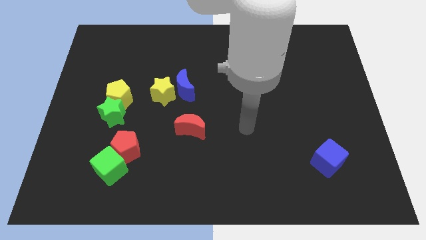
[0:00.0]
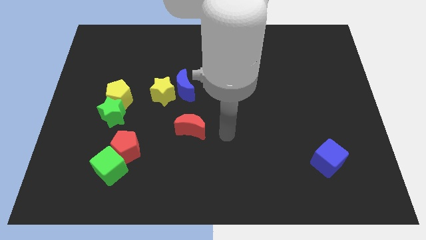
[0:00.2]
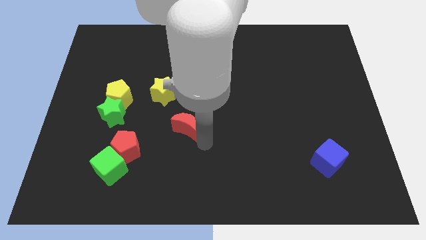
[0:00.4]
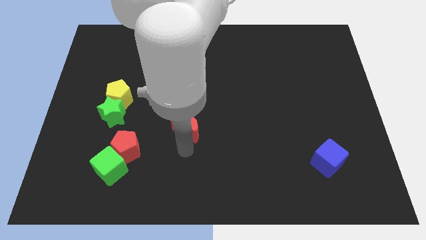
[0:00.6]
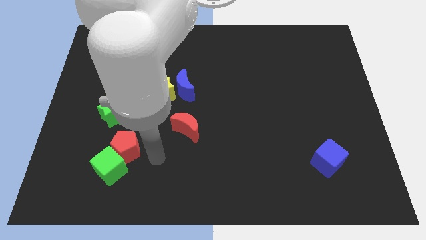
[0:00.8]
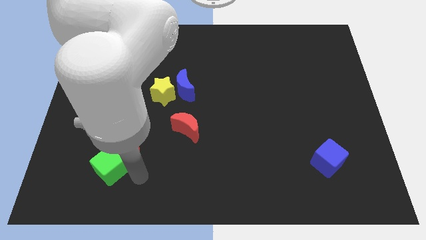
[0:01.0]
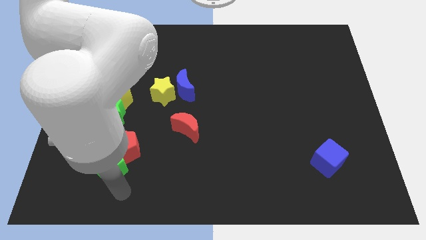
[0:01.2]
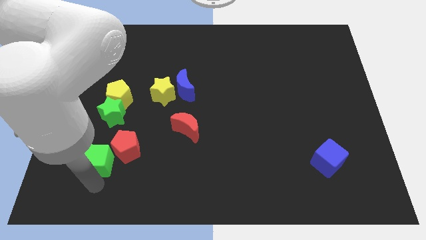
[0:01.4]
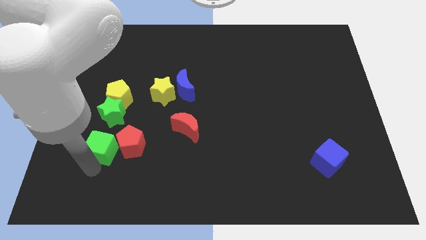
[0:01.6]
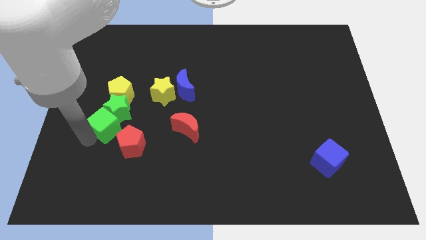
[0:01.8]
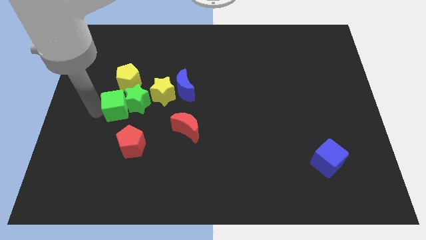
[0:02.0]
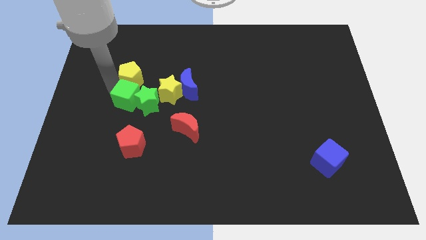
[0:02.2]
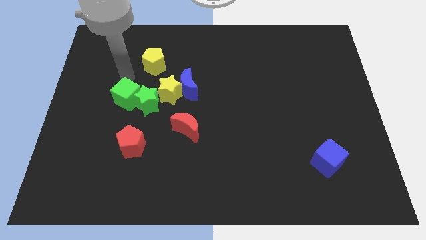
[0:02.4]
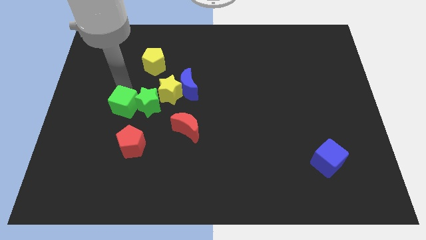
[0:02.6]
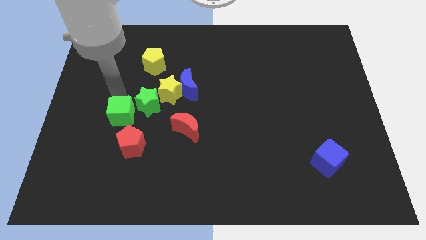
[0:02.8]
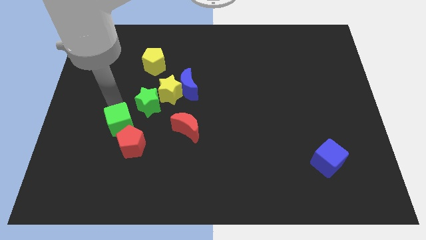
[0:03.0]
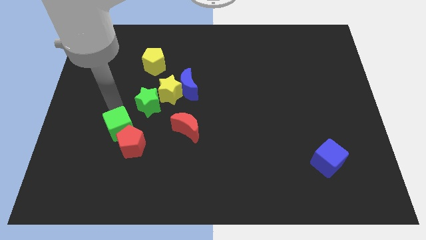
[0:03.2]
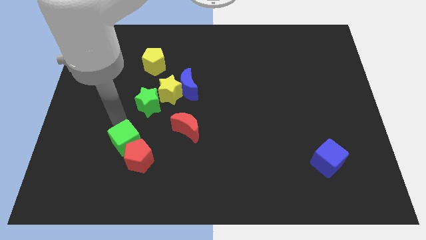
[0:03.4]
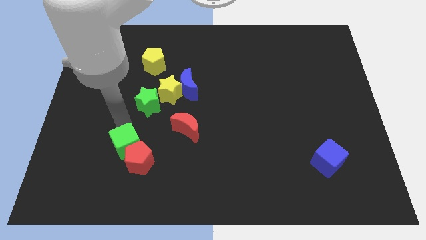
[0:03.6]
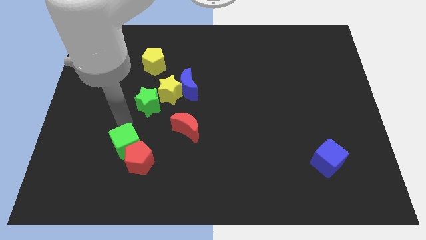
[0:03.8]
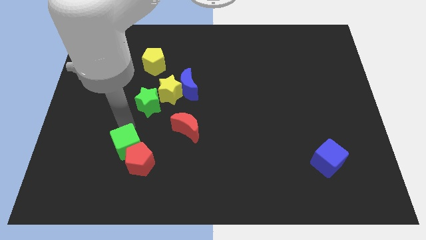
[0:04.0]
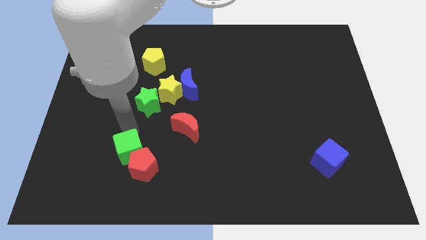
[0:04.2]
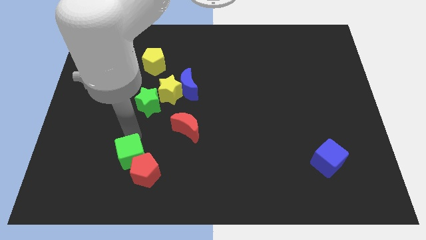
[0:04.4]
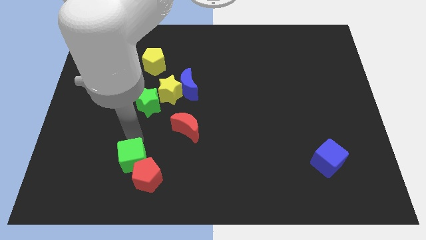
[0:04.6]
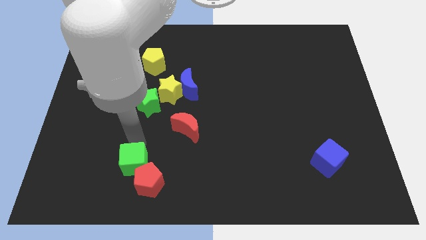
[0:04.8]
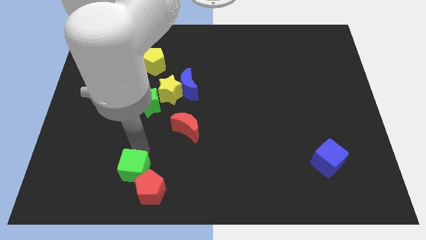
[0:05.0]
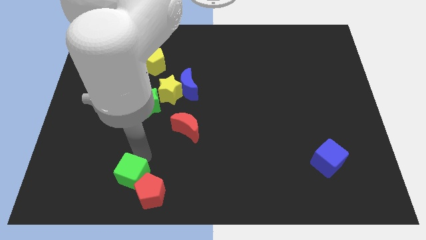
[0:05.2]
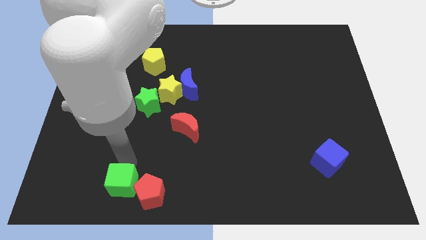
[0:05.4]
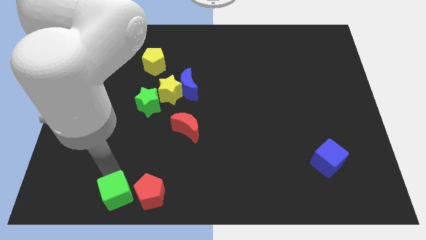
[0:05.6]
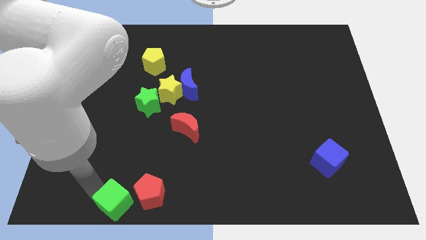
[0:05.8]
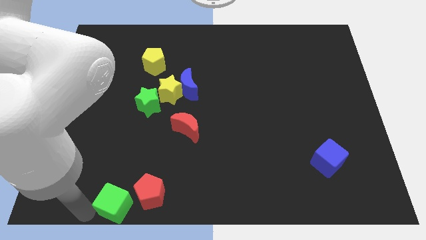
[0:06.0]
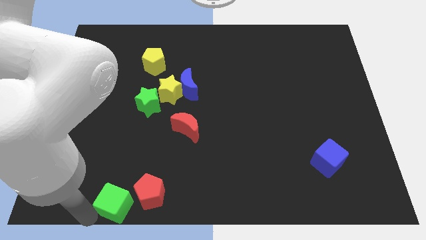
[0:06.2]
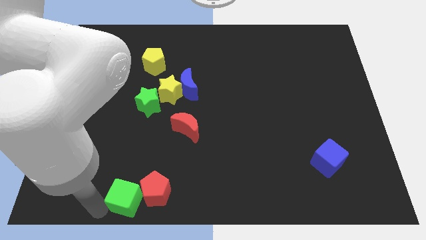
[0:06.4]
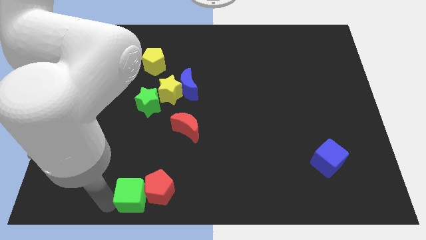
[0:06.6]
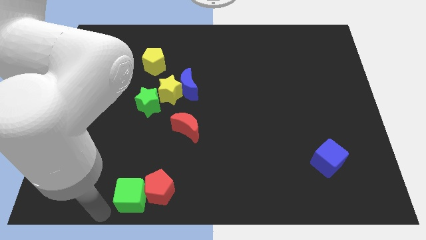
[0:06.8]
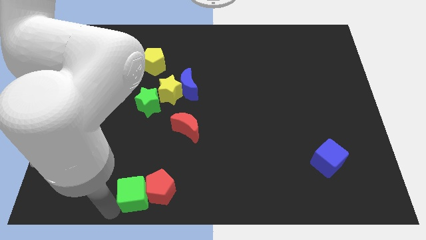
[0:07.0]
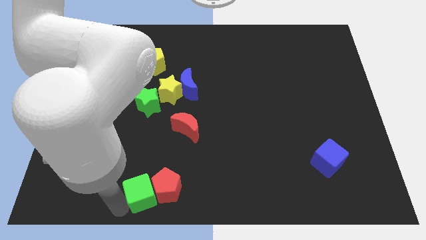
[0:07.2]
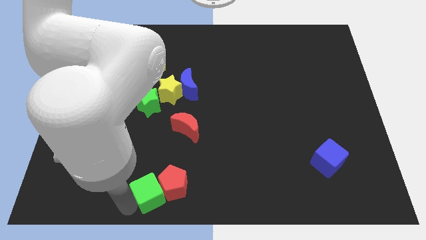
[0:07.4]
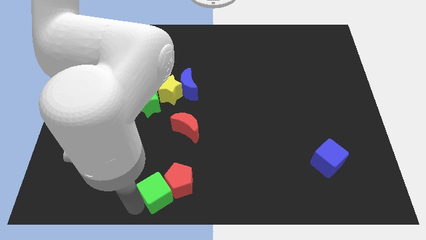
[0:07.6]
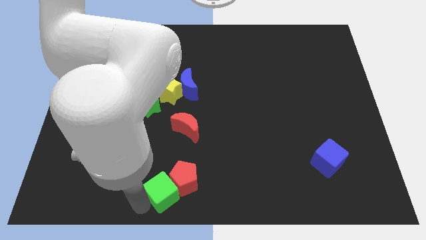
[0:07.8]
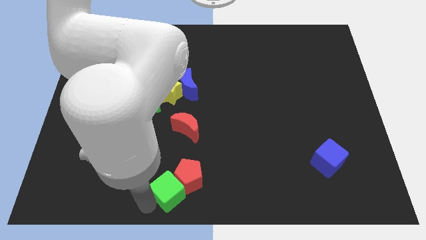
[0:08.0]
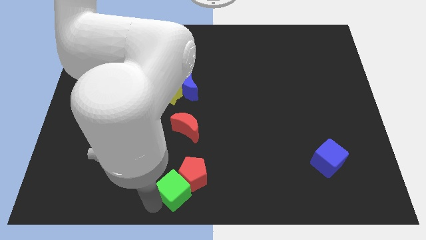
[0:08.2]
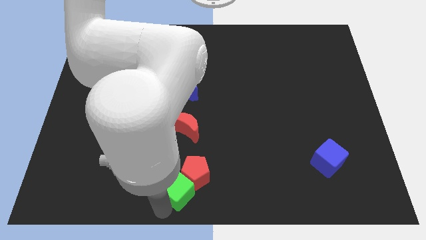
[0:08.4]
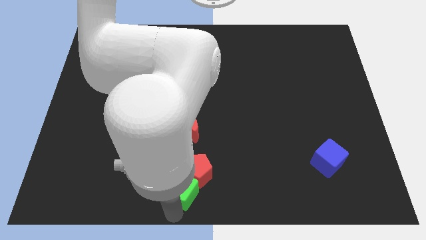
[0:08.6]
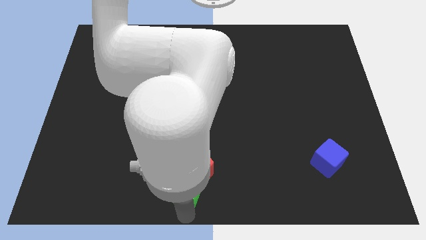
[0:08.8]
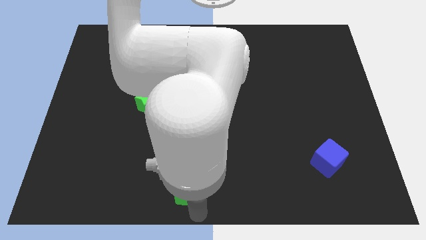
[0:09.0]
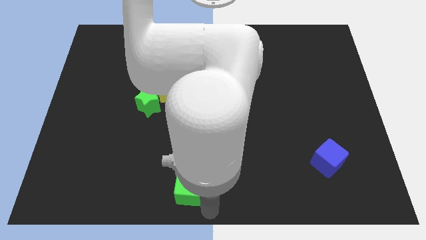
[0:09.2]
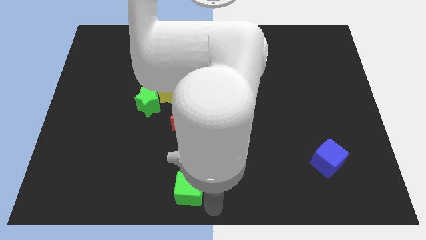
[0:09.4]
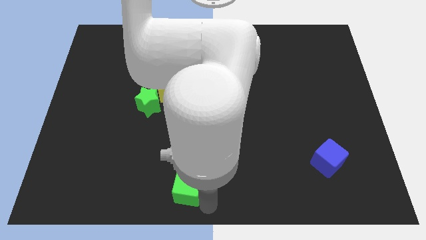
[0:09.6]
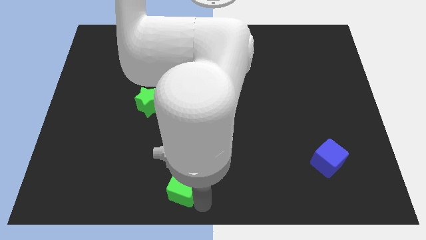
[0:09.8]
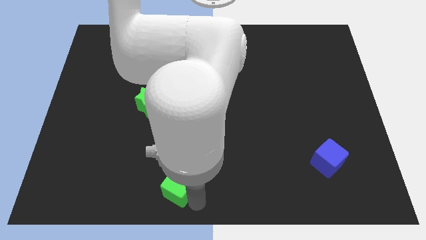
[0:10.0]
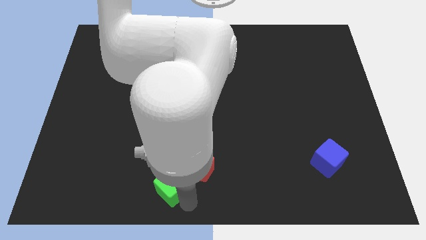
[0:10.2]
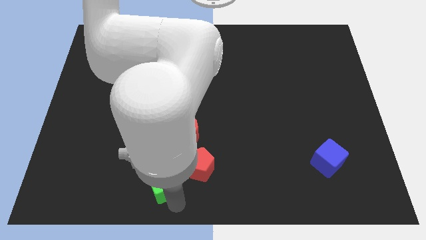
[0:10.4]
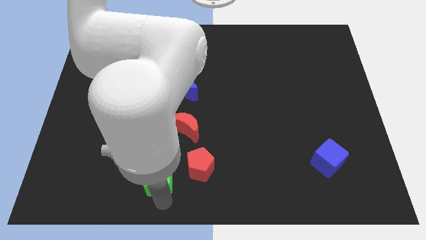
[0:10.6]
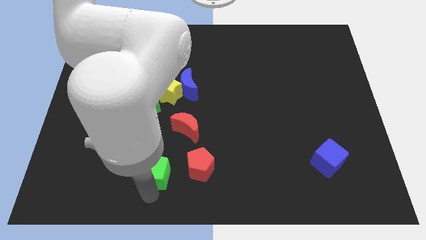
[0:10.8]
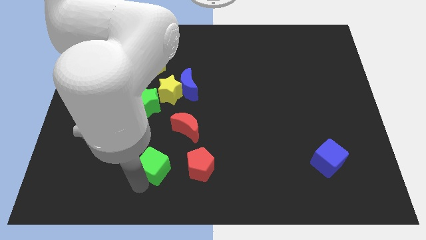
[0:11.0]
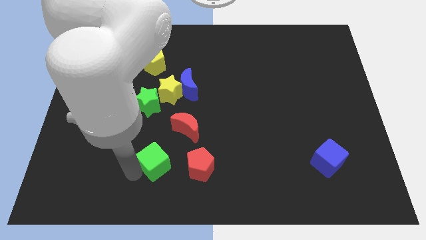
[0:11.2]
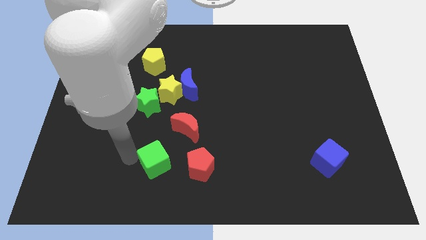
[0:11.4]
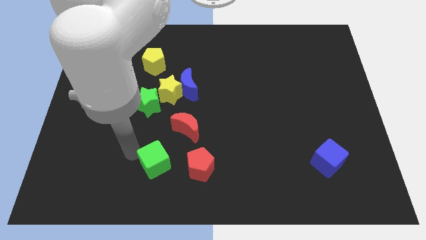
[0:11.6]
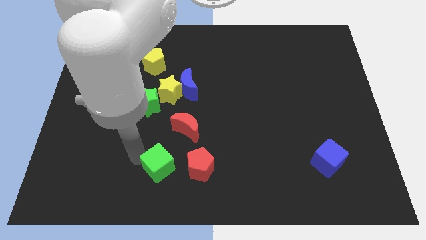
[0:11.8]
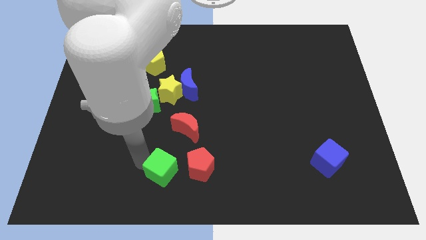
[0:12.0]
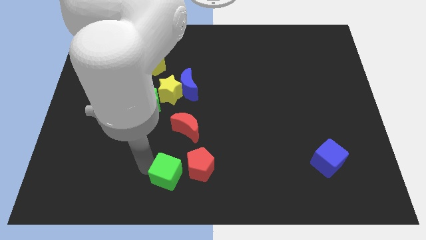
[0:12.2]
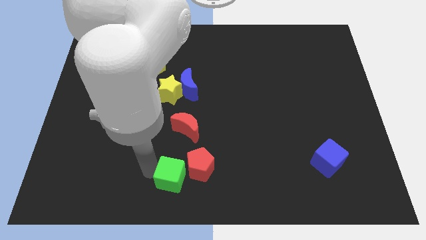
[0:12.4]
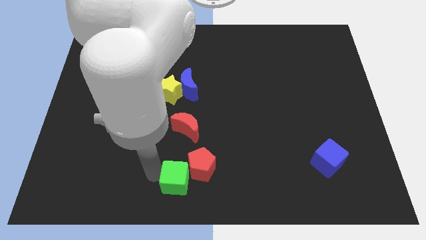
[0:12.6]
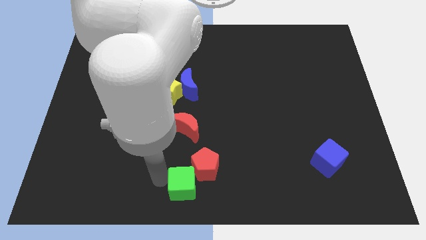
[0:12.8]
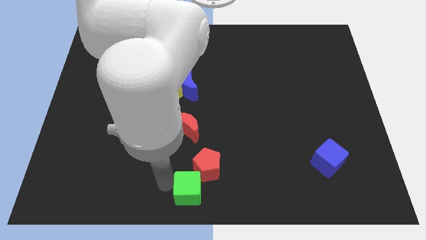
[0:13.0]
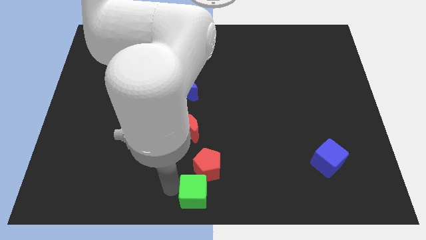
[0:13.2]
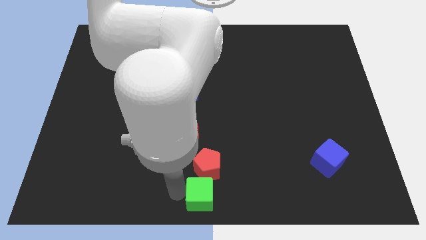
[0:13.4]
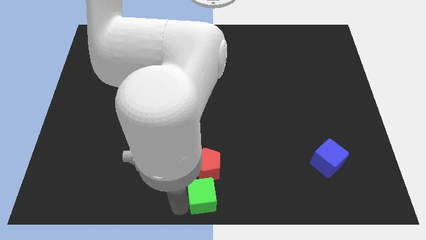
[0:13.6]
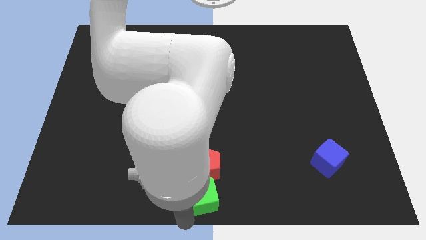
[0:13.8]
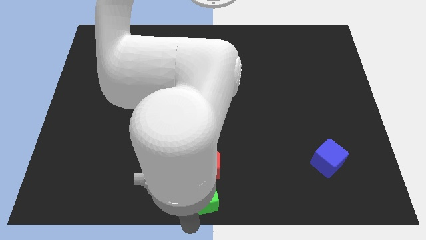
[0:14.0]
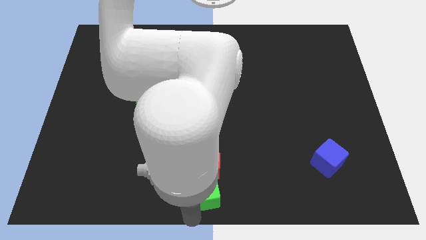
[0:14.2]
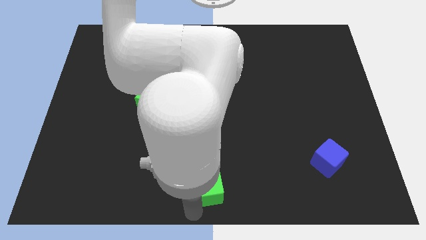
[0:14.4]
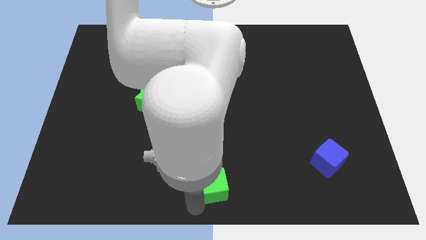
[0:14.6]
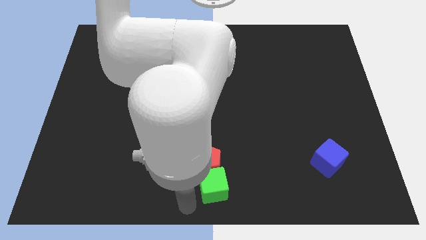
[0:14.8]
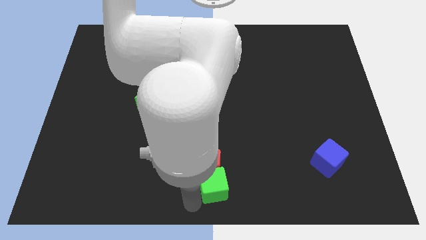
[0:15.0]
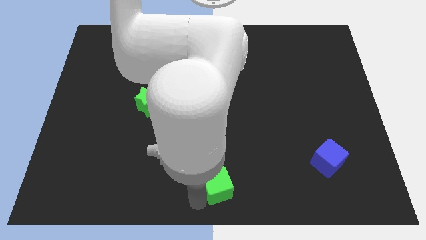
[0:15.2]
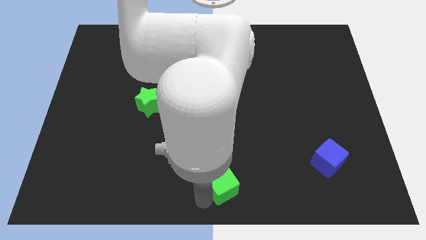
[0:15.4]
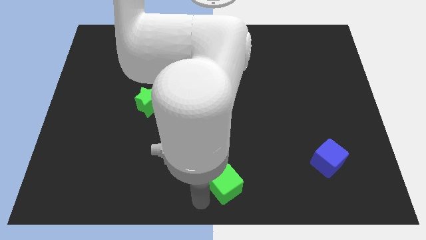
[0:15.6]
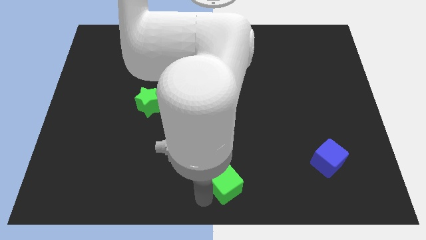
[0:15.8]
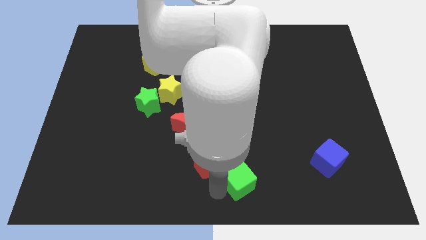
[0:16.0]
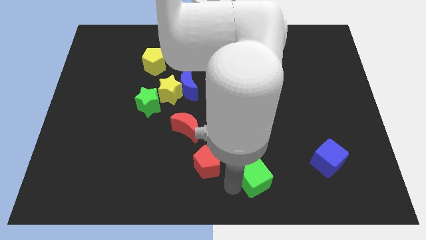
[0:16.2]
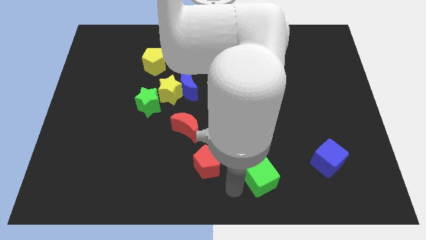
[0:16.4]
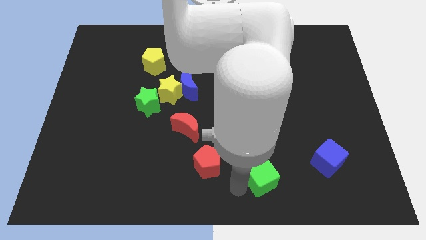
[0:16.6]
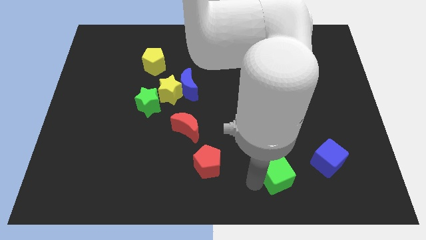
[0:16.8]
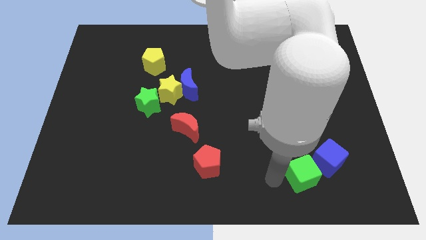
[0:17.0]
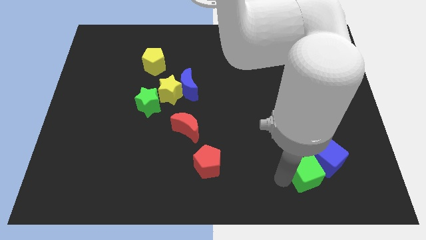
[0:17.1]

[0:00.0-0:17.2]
slide the green cube to the blue cube
